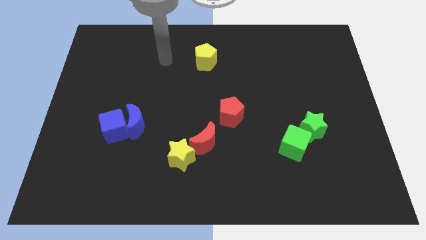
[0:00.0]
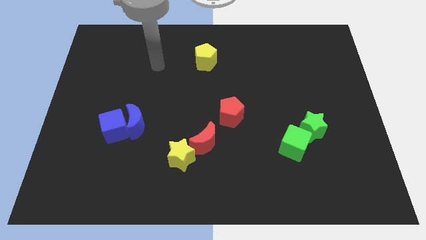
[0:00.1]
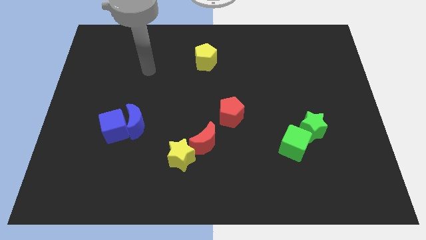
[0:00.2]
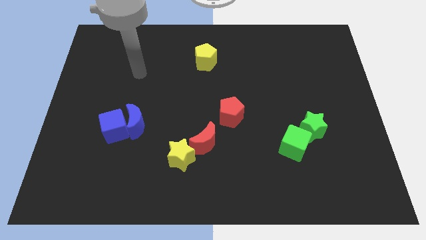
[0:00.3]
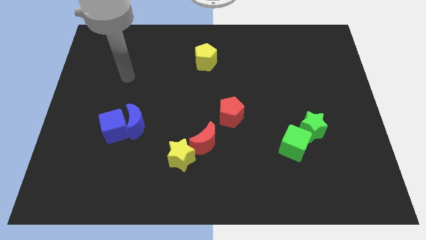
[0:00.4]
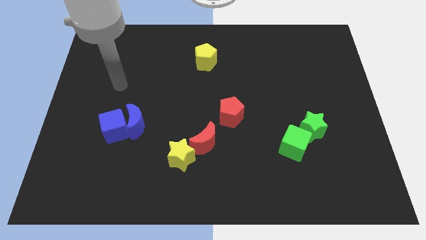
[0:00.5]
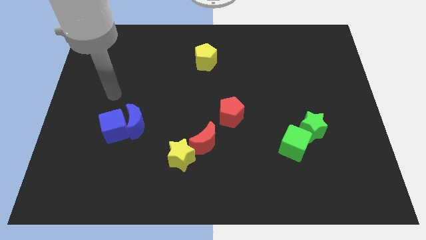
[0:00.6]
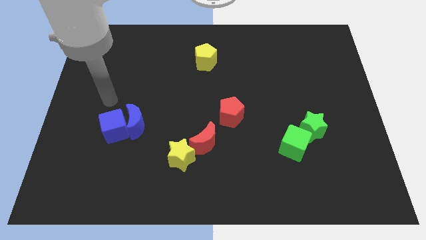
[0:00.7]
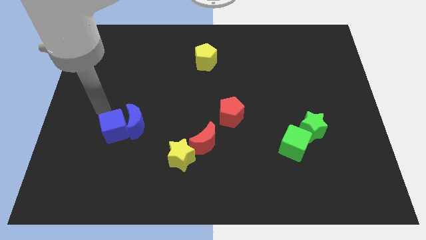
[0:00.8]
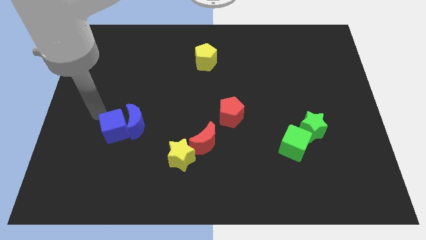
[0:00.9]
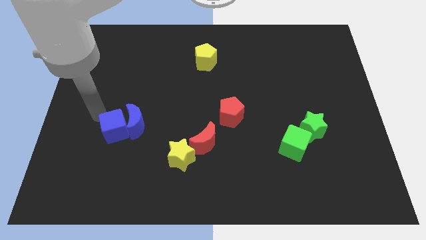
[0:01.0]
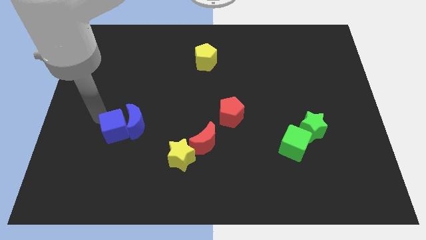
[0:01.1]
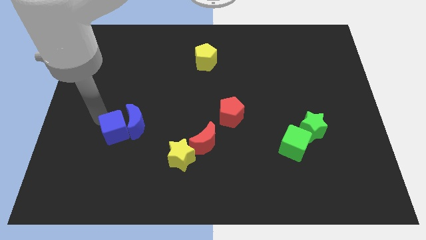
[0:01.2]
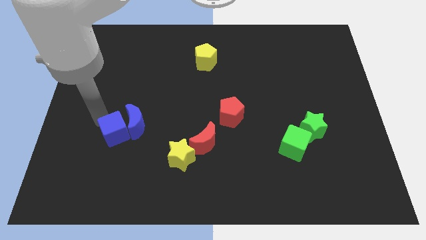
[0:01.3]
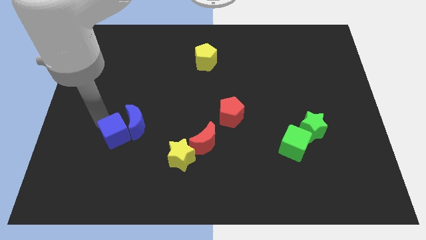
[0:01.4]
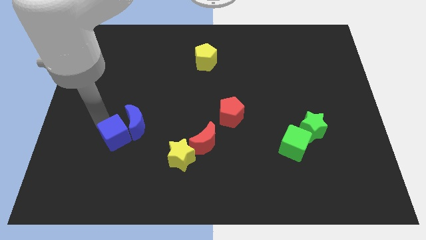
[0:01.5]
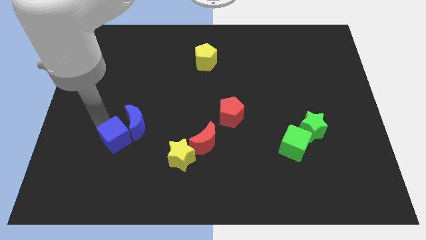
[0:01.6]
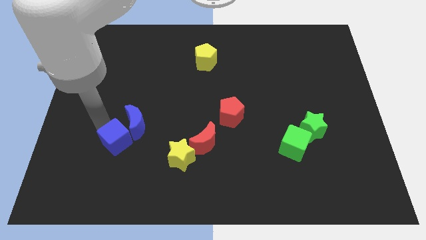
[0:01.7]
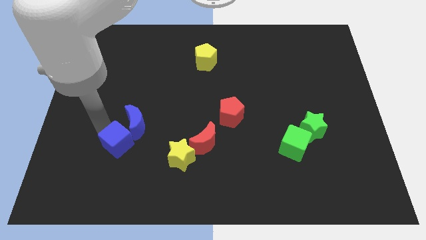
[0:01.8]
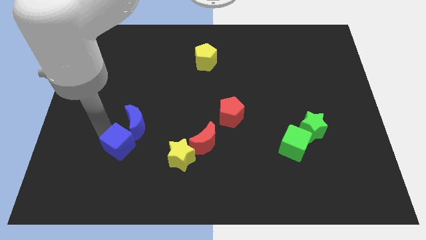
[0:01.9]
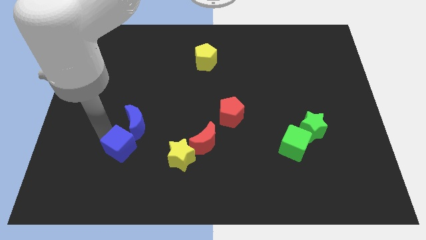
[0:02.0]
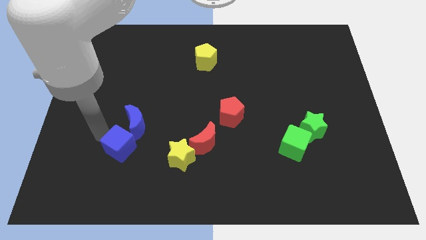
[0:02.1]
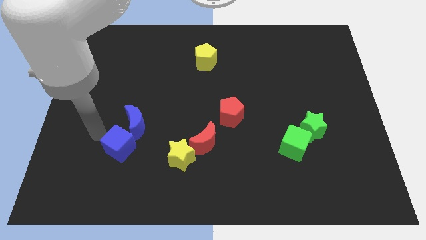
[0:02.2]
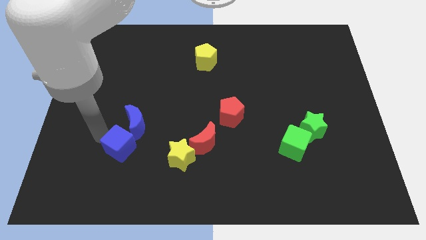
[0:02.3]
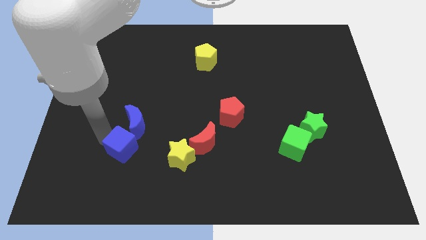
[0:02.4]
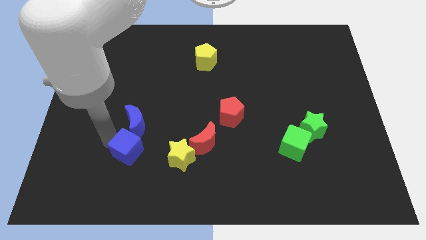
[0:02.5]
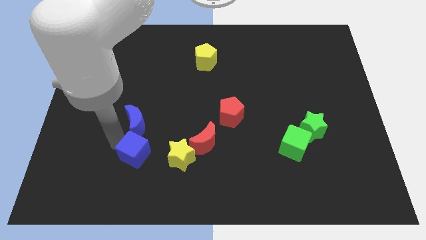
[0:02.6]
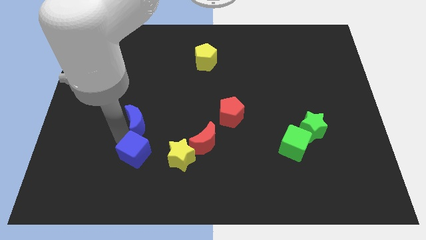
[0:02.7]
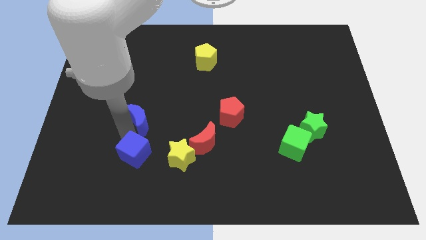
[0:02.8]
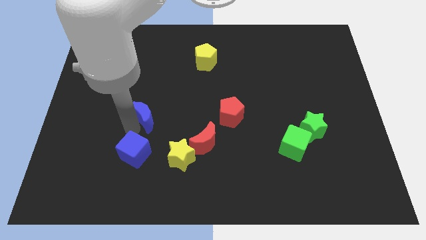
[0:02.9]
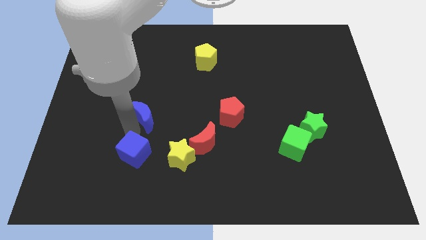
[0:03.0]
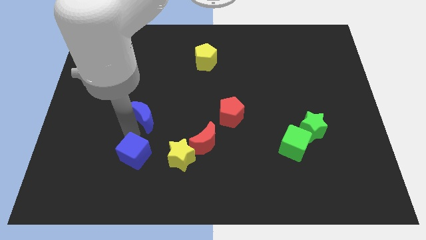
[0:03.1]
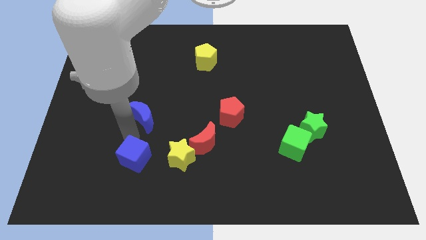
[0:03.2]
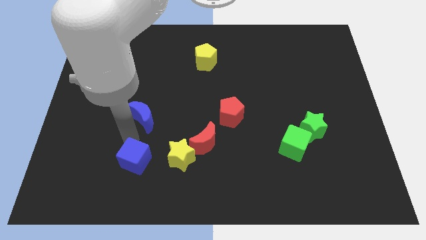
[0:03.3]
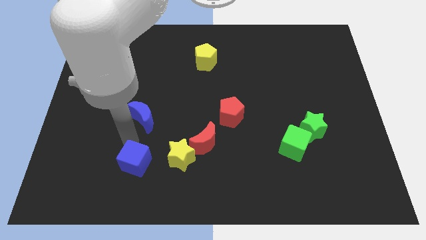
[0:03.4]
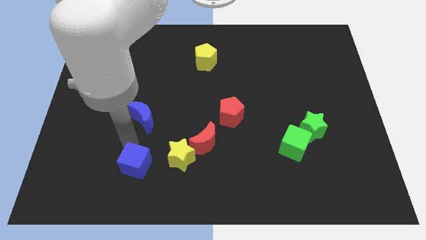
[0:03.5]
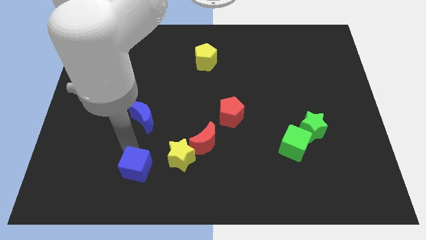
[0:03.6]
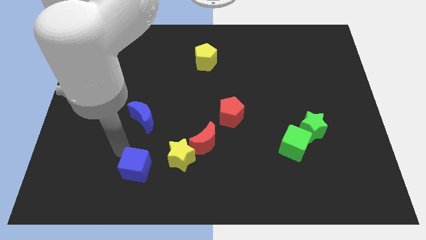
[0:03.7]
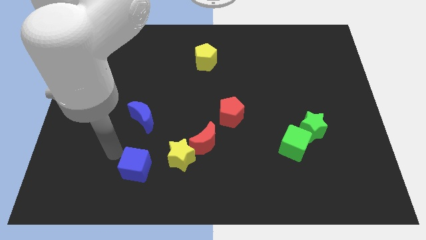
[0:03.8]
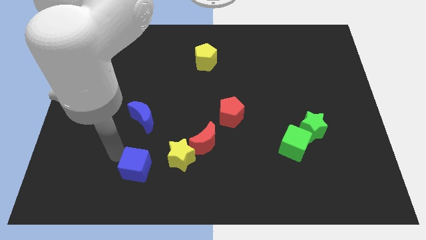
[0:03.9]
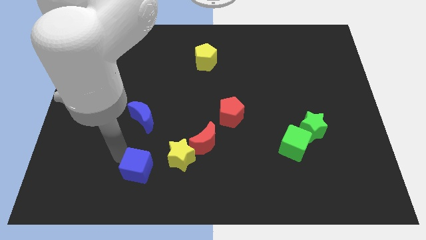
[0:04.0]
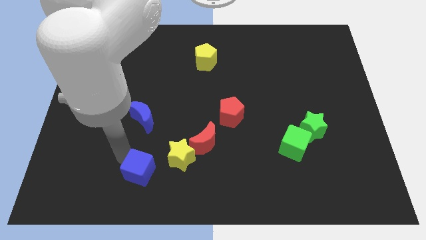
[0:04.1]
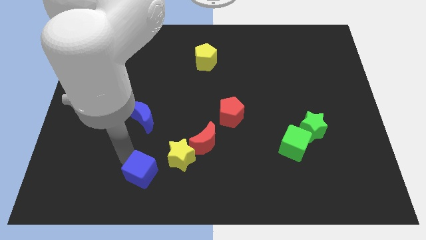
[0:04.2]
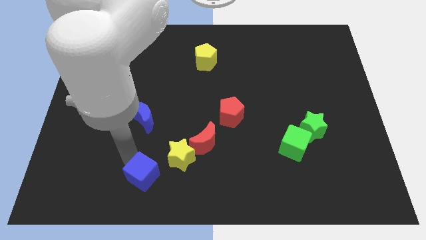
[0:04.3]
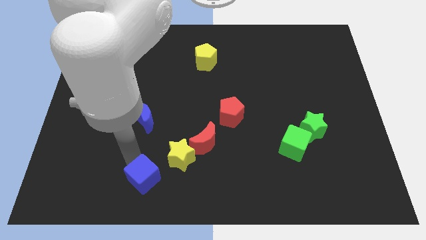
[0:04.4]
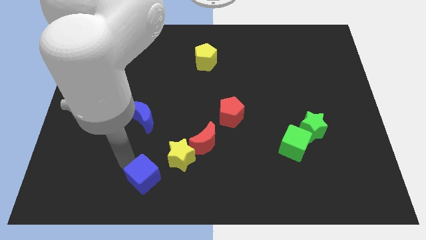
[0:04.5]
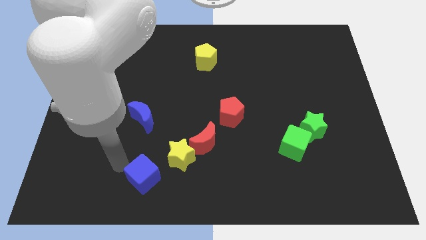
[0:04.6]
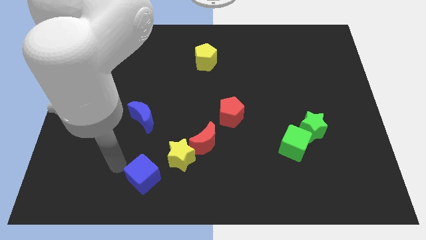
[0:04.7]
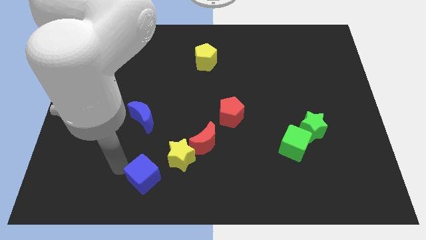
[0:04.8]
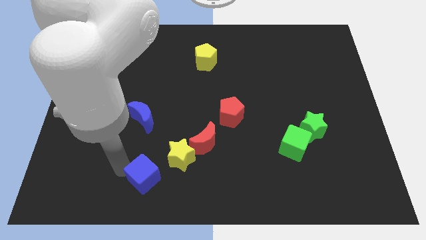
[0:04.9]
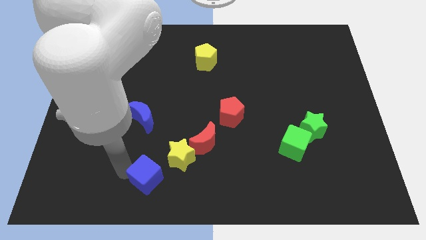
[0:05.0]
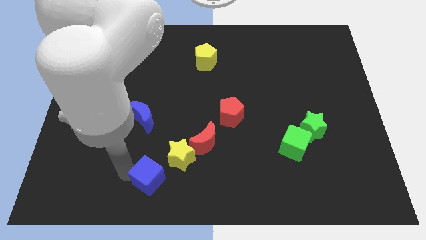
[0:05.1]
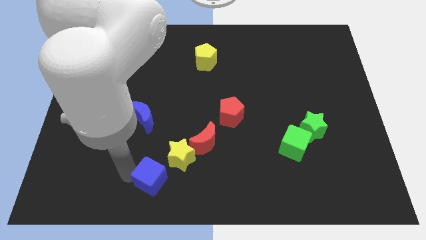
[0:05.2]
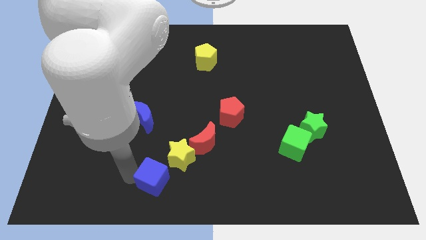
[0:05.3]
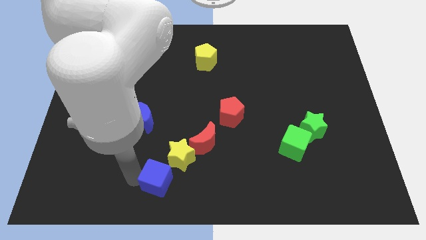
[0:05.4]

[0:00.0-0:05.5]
move the blue cube to the bottom

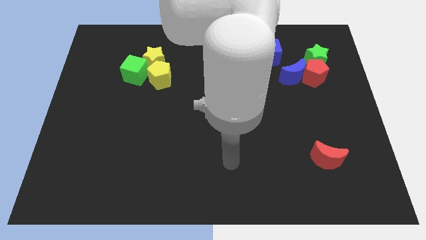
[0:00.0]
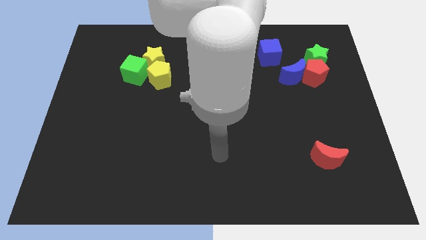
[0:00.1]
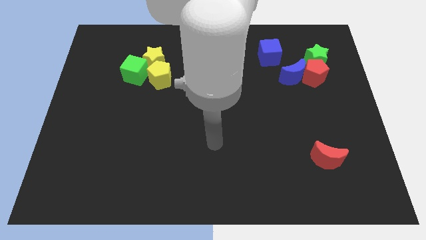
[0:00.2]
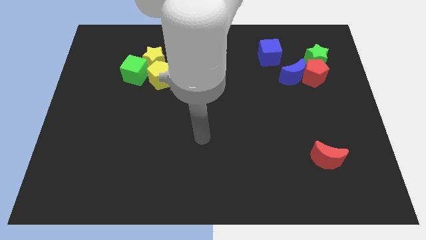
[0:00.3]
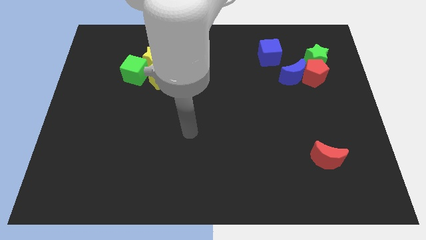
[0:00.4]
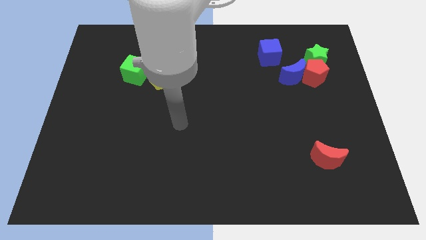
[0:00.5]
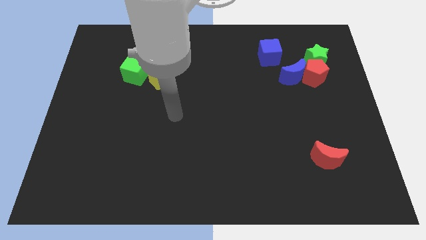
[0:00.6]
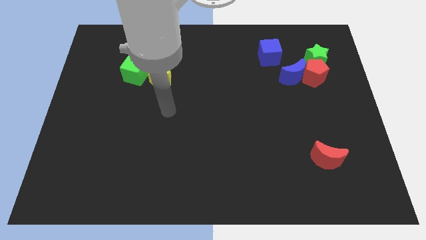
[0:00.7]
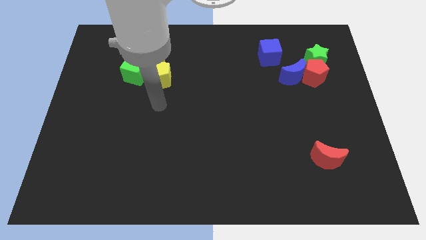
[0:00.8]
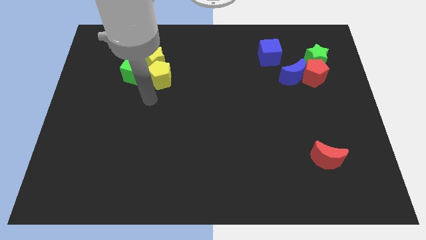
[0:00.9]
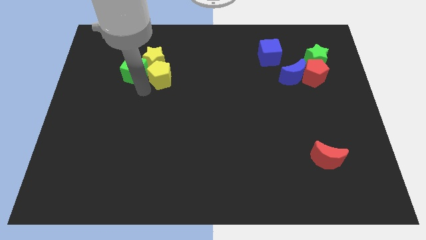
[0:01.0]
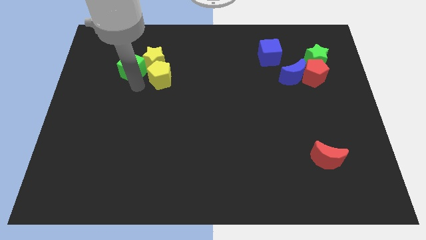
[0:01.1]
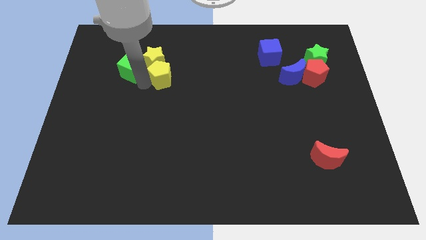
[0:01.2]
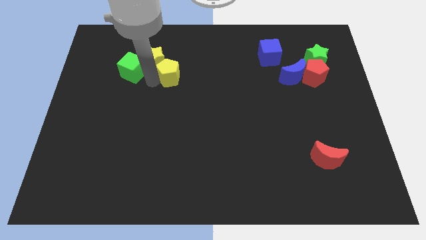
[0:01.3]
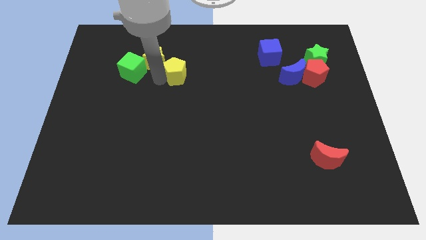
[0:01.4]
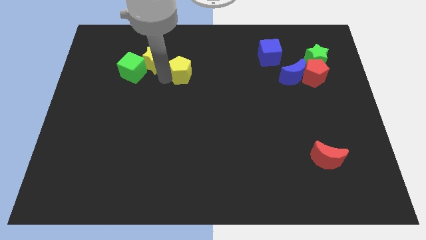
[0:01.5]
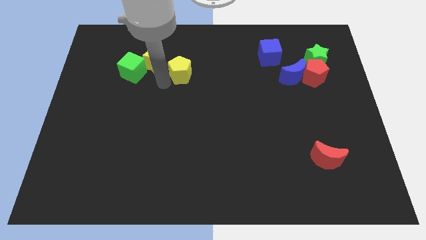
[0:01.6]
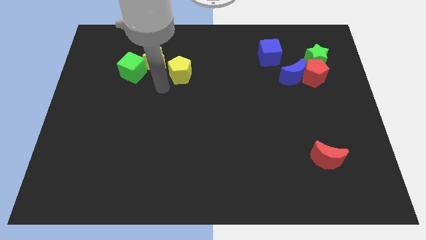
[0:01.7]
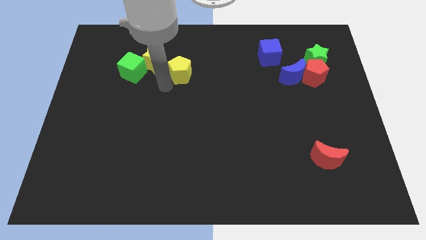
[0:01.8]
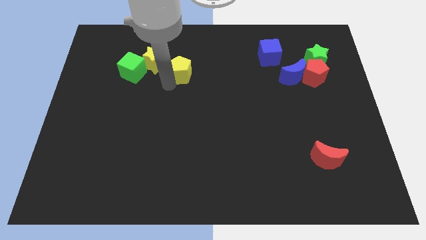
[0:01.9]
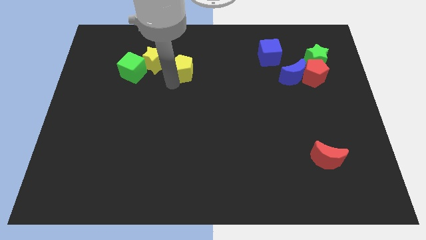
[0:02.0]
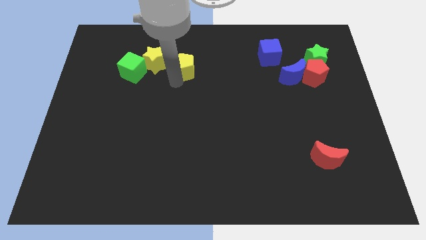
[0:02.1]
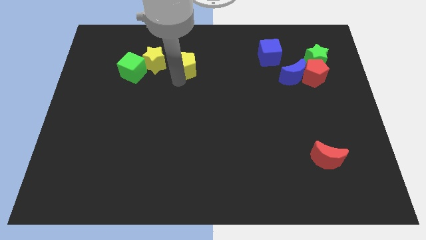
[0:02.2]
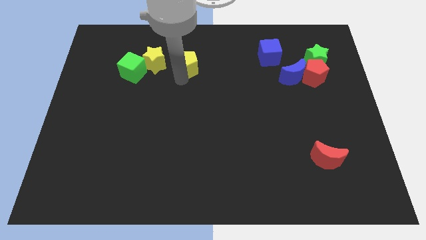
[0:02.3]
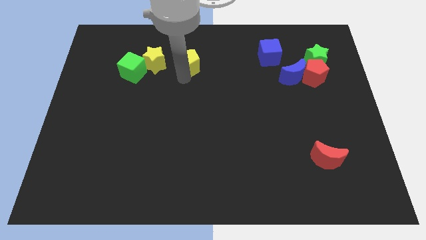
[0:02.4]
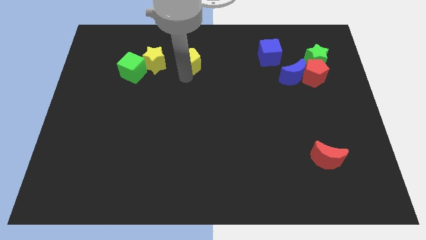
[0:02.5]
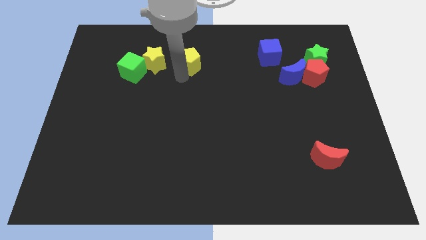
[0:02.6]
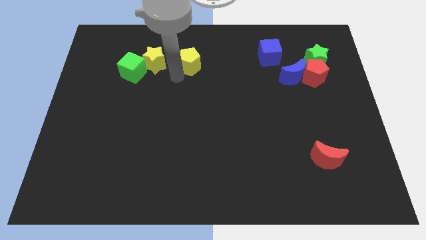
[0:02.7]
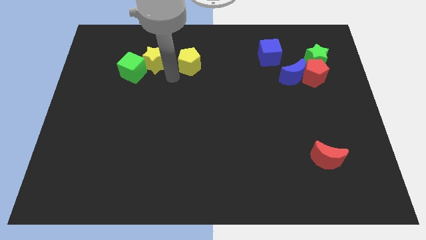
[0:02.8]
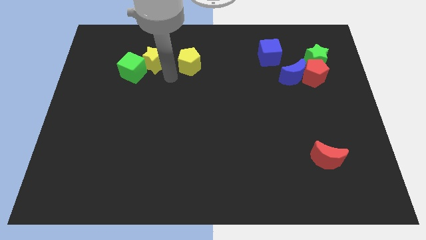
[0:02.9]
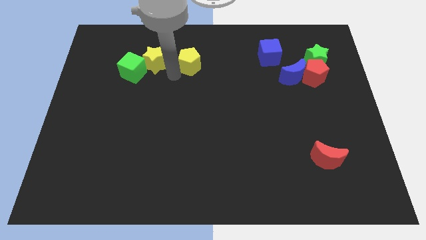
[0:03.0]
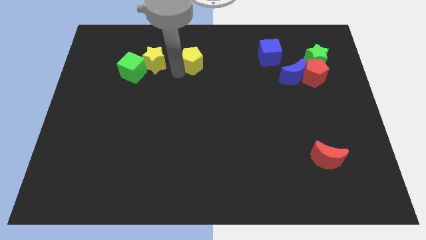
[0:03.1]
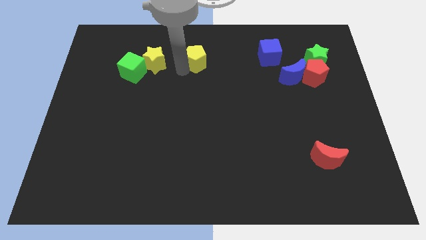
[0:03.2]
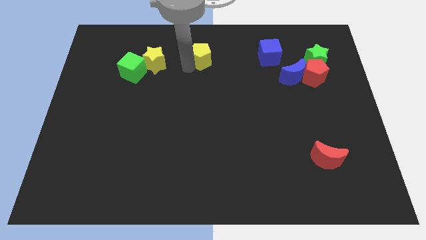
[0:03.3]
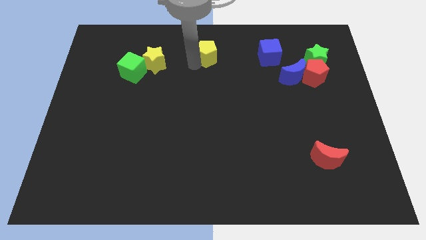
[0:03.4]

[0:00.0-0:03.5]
push the yellow pentagon to the top side
